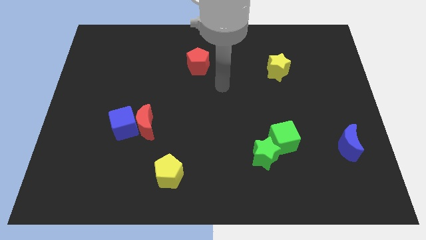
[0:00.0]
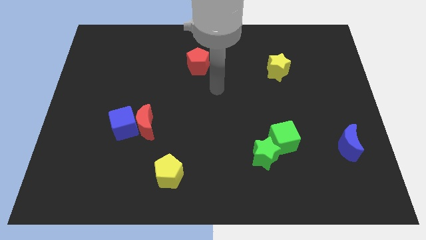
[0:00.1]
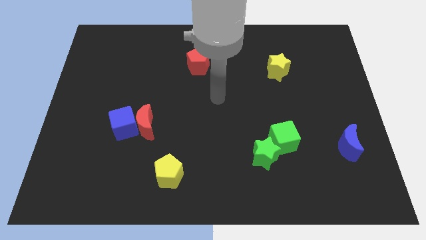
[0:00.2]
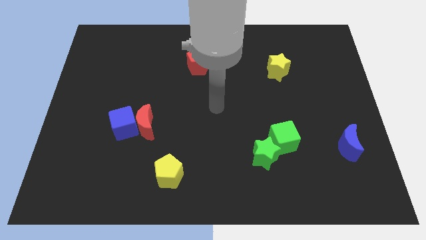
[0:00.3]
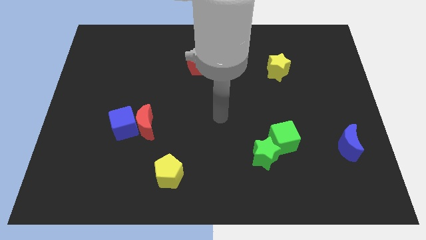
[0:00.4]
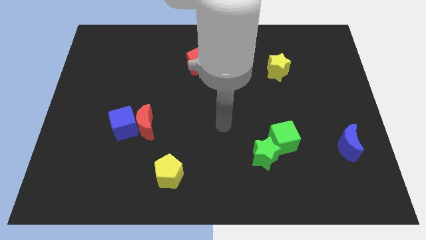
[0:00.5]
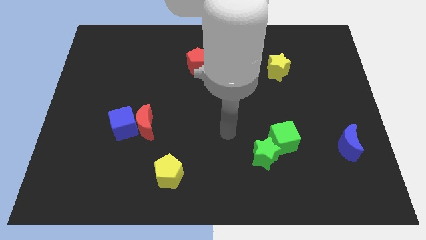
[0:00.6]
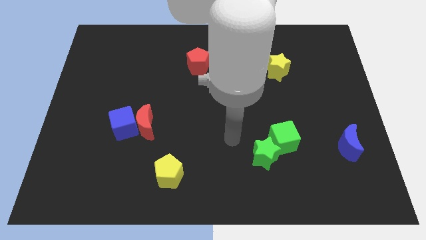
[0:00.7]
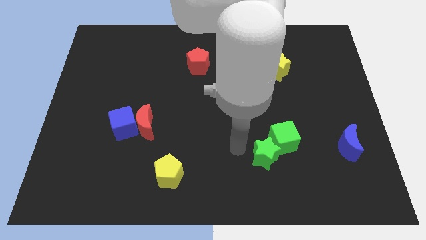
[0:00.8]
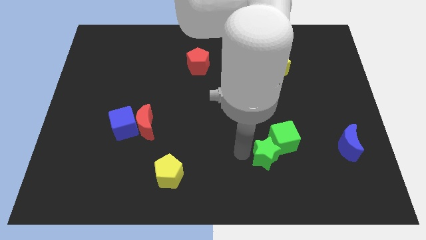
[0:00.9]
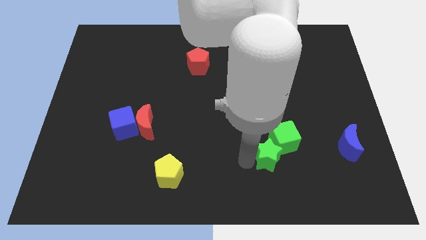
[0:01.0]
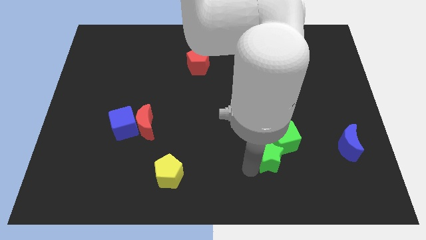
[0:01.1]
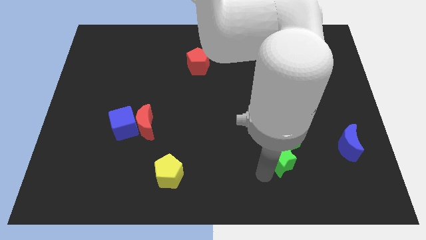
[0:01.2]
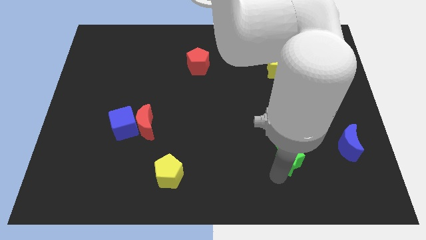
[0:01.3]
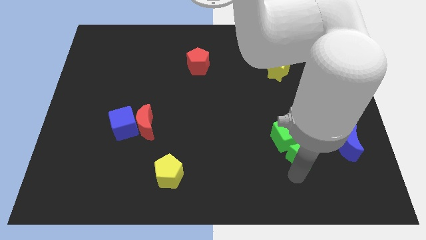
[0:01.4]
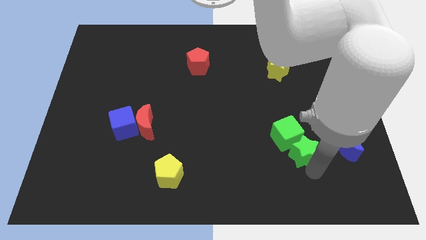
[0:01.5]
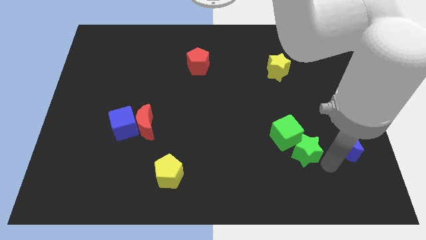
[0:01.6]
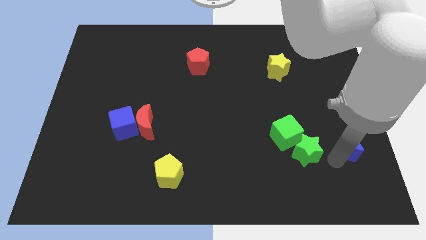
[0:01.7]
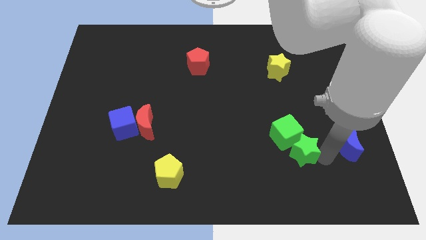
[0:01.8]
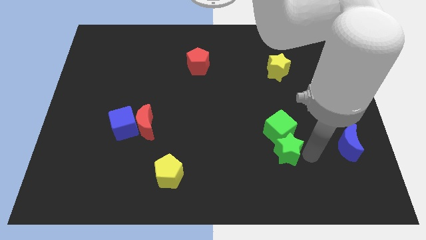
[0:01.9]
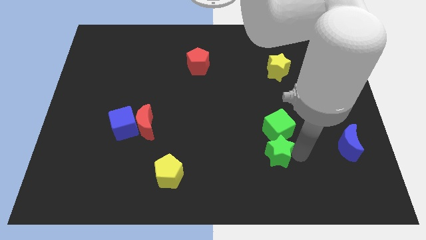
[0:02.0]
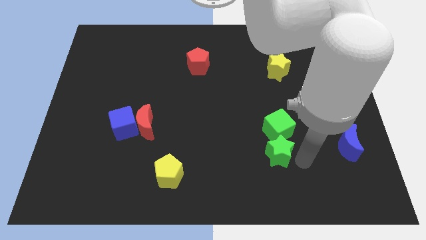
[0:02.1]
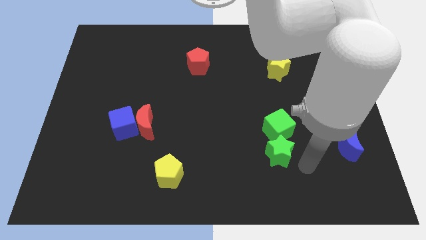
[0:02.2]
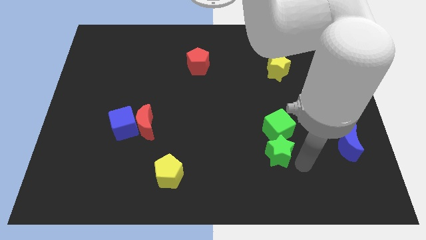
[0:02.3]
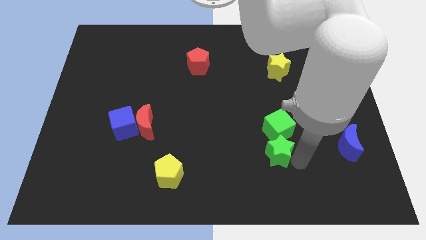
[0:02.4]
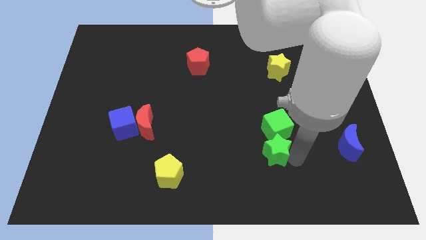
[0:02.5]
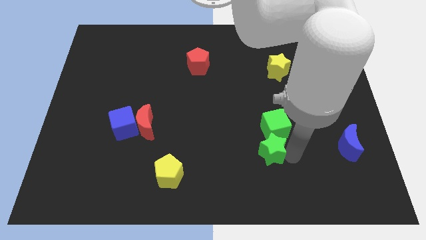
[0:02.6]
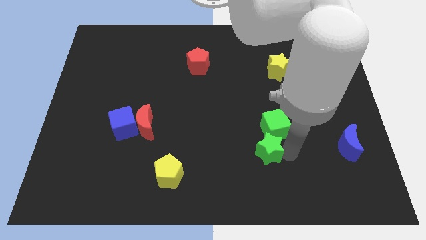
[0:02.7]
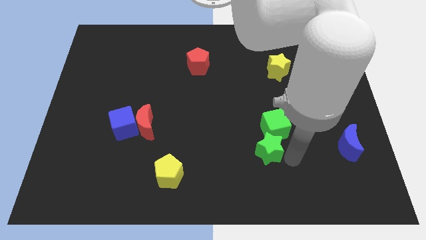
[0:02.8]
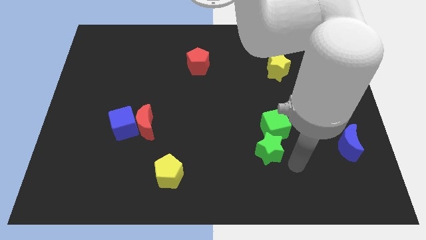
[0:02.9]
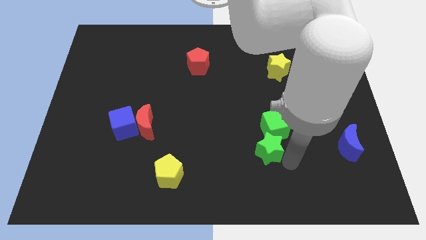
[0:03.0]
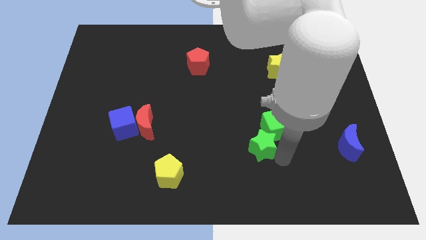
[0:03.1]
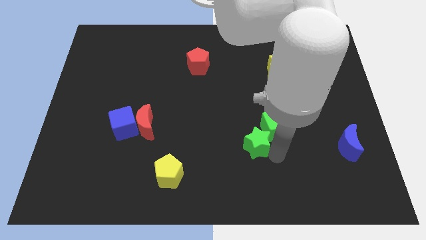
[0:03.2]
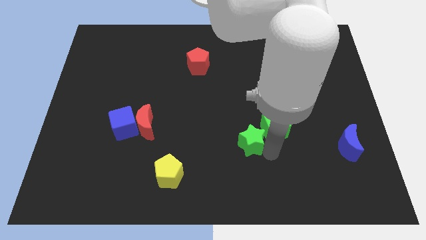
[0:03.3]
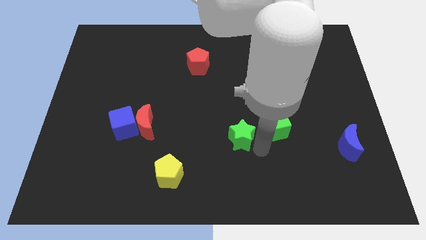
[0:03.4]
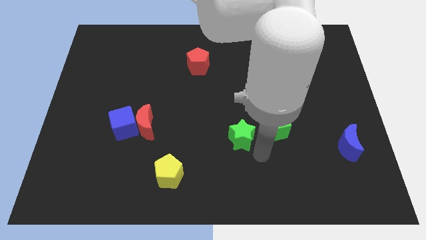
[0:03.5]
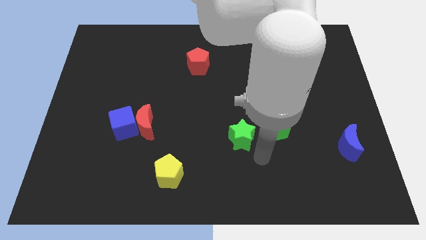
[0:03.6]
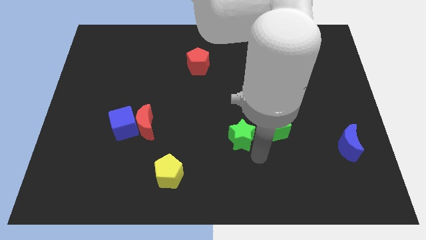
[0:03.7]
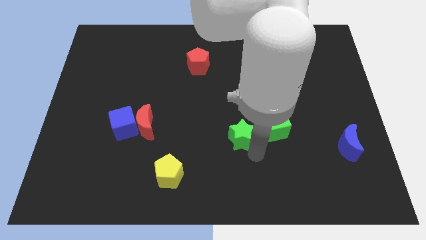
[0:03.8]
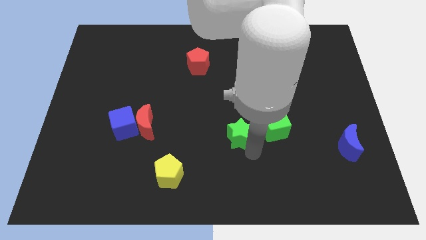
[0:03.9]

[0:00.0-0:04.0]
push the green star a little bit up and to the left diagonally

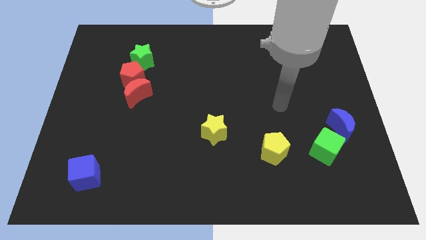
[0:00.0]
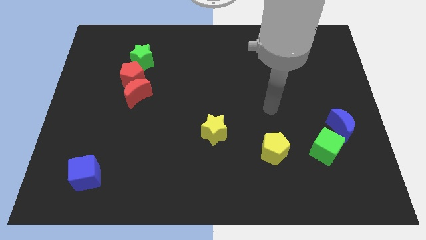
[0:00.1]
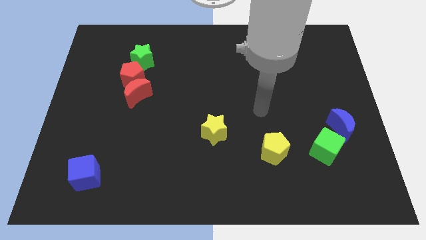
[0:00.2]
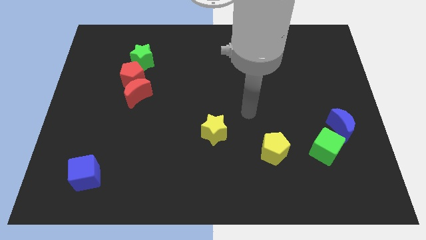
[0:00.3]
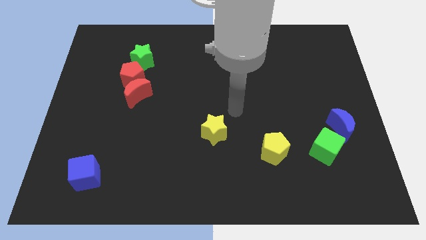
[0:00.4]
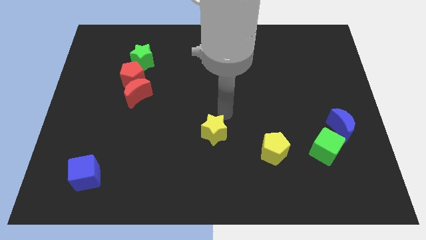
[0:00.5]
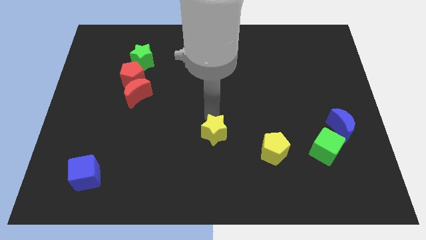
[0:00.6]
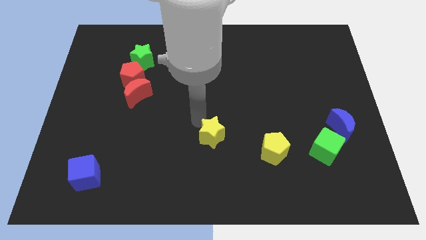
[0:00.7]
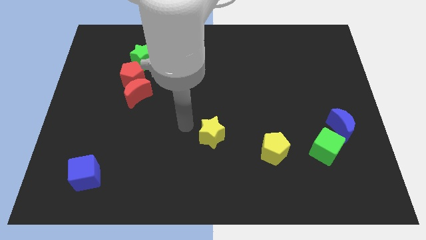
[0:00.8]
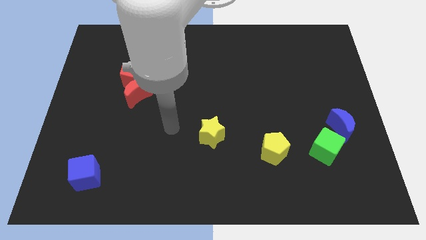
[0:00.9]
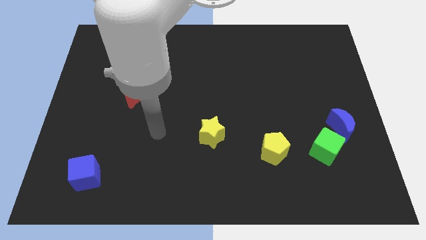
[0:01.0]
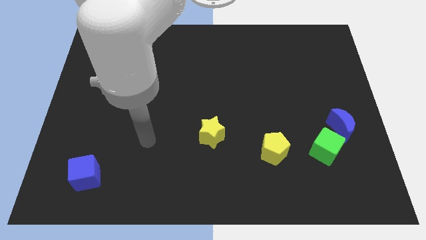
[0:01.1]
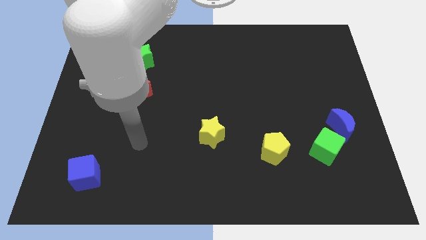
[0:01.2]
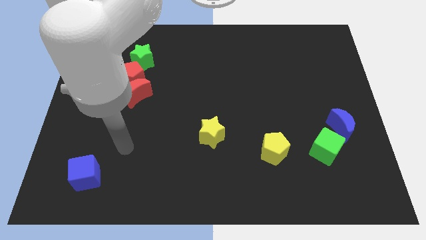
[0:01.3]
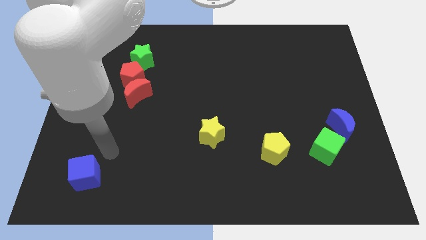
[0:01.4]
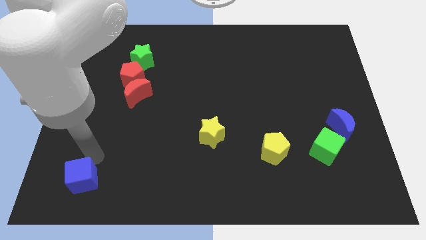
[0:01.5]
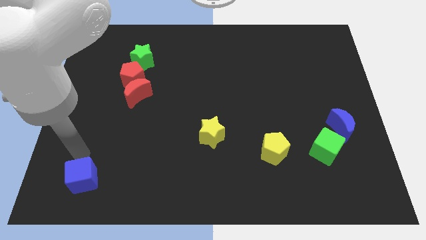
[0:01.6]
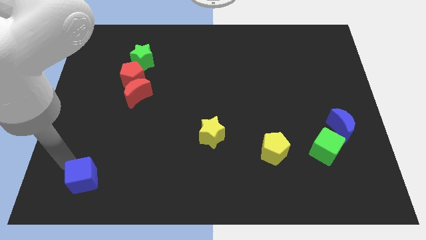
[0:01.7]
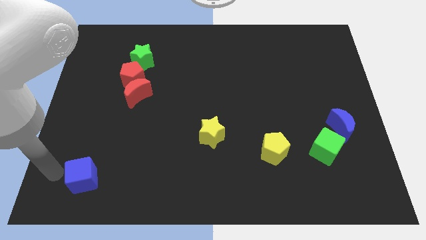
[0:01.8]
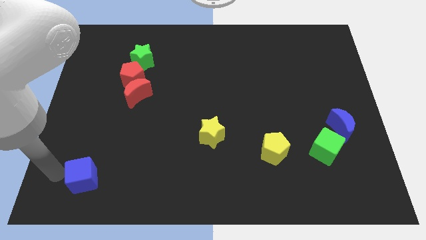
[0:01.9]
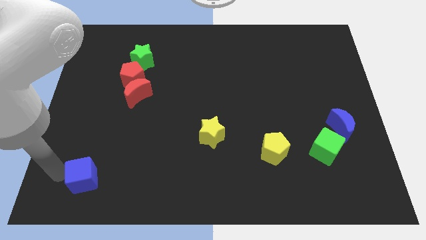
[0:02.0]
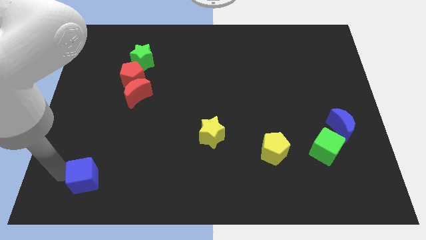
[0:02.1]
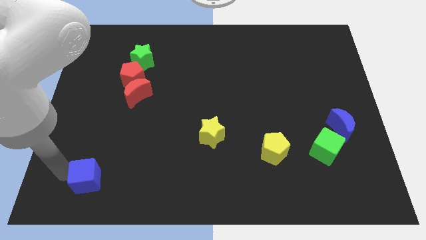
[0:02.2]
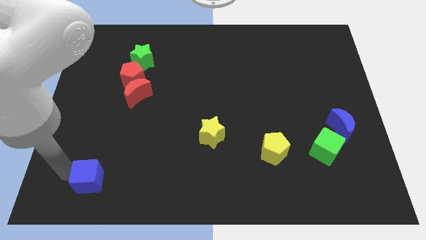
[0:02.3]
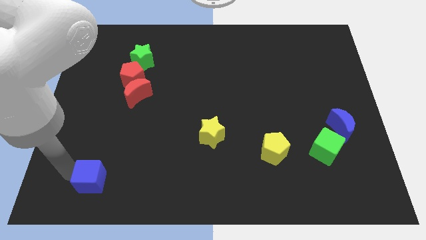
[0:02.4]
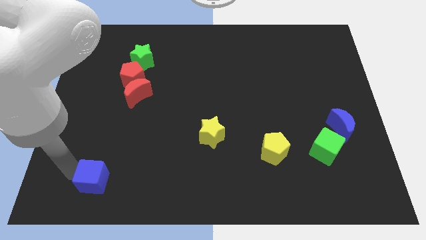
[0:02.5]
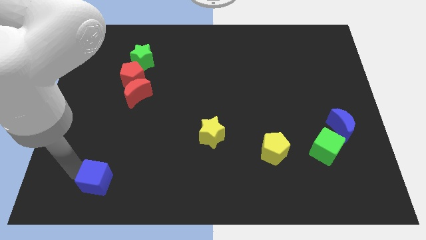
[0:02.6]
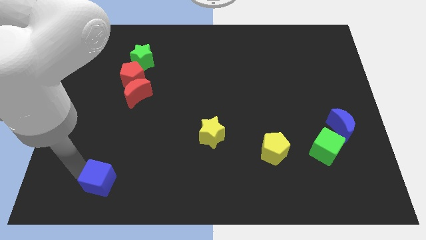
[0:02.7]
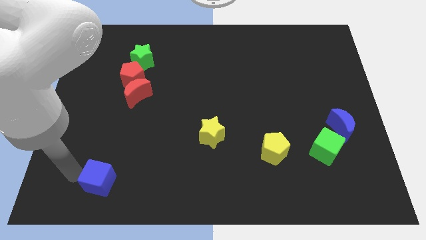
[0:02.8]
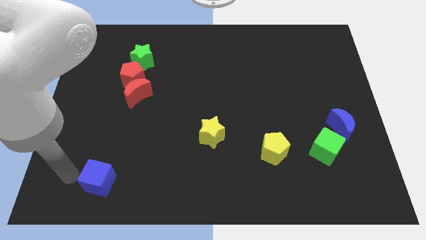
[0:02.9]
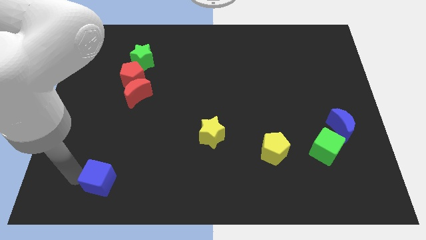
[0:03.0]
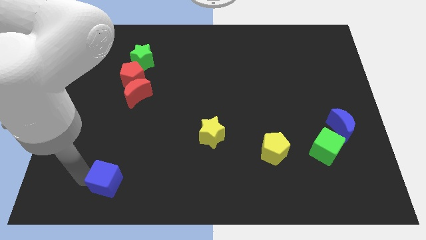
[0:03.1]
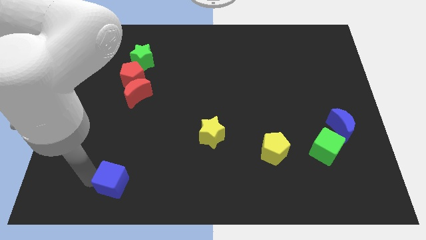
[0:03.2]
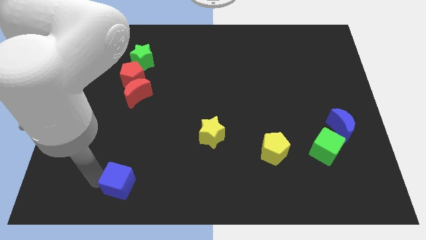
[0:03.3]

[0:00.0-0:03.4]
slide the blue cube right slightly

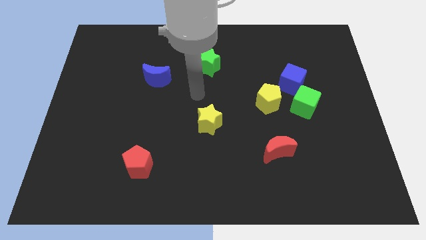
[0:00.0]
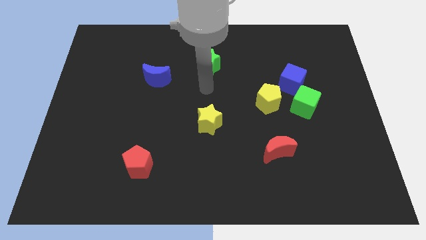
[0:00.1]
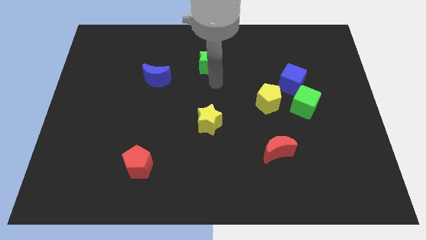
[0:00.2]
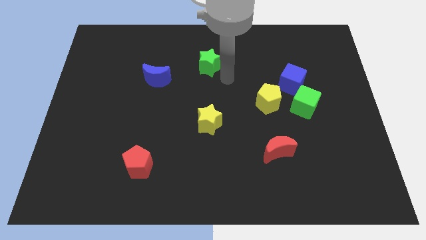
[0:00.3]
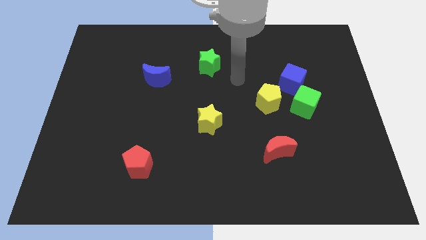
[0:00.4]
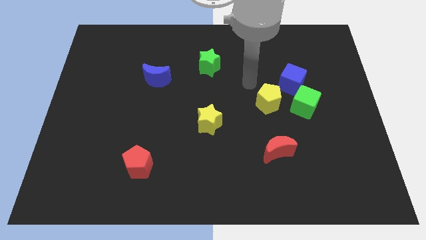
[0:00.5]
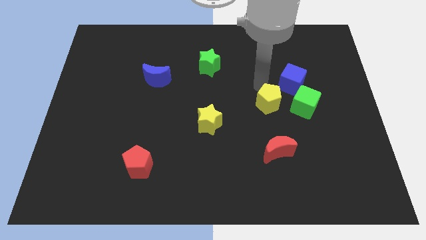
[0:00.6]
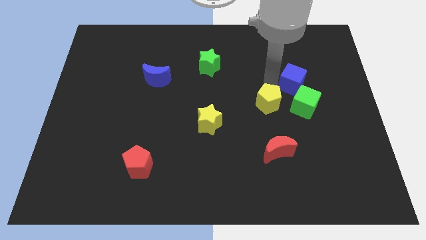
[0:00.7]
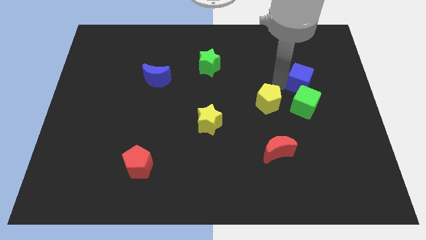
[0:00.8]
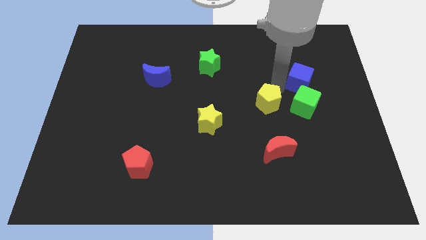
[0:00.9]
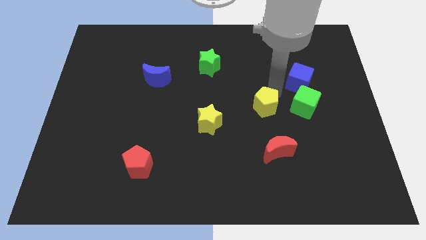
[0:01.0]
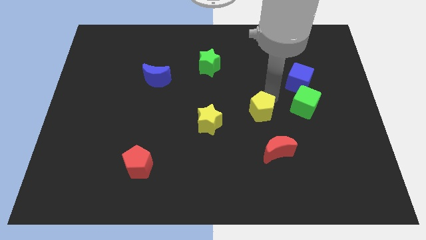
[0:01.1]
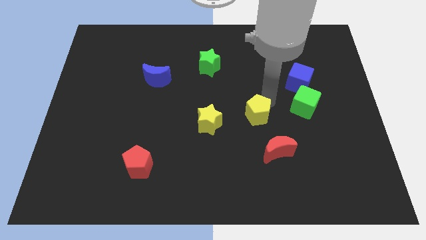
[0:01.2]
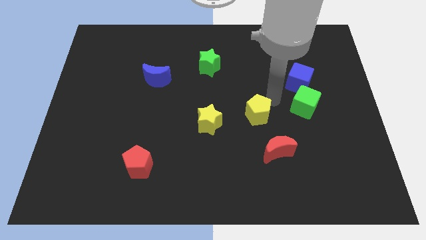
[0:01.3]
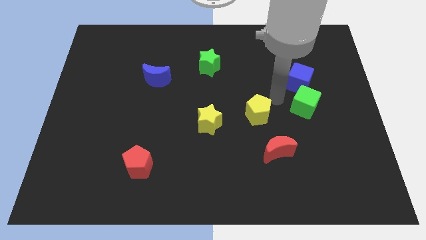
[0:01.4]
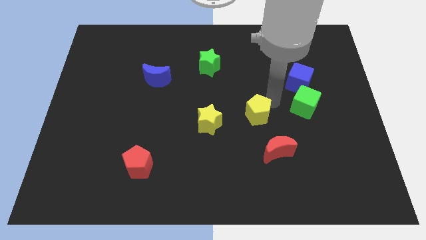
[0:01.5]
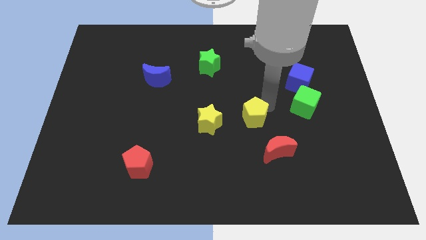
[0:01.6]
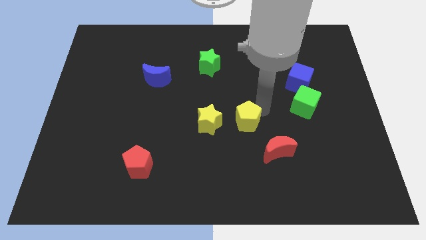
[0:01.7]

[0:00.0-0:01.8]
slide the yellow pentagon somewhat diagonally downwards and left
